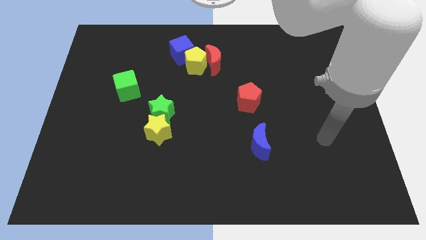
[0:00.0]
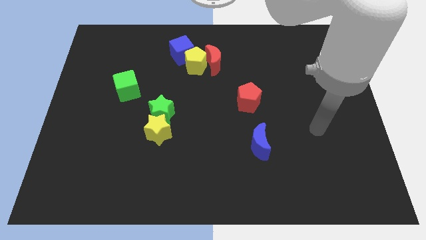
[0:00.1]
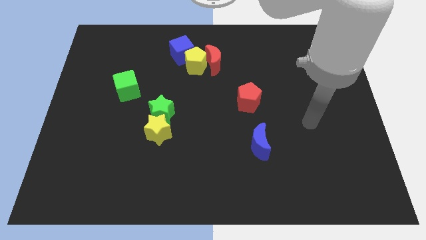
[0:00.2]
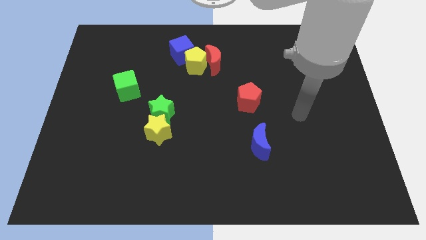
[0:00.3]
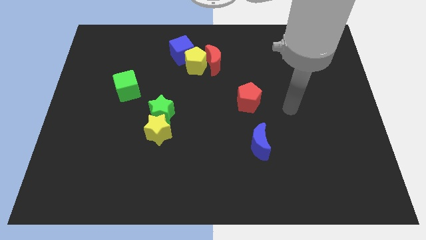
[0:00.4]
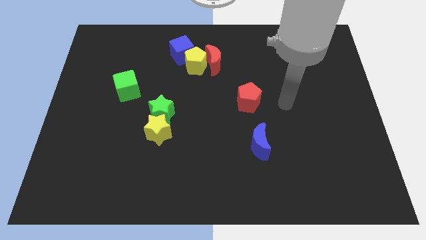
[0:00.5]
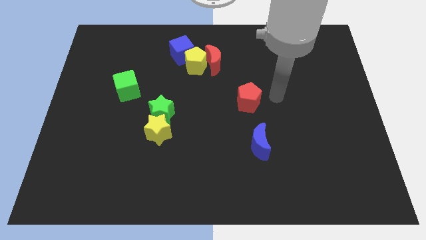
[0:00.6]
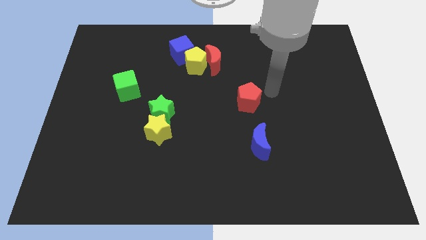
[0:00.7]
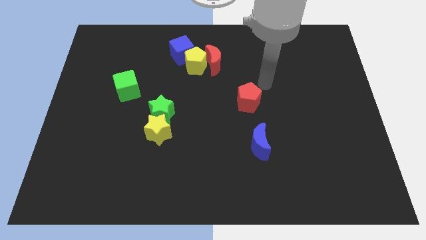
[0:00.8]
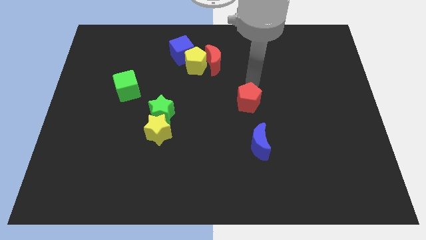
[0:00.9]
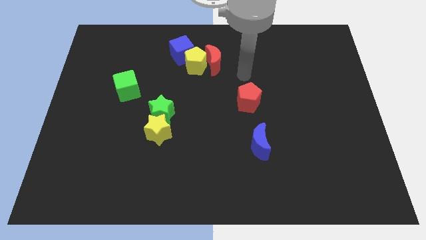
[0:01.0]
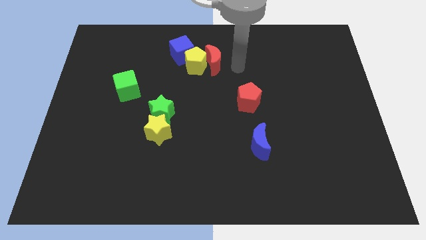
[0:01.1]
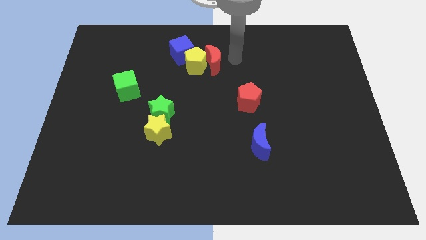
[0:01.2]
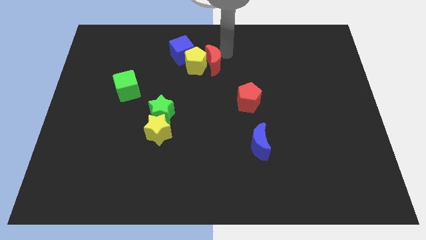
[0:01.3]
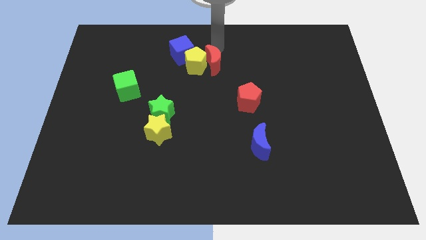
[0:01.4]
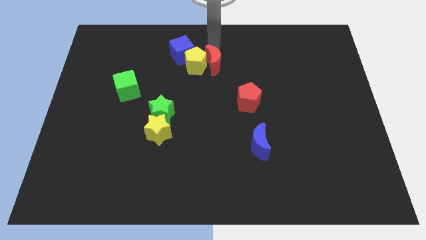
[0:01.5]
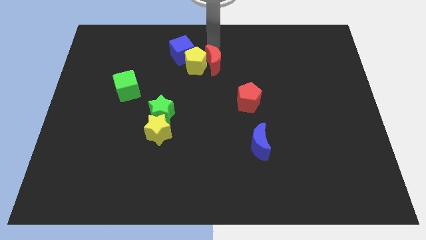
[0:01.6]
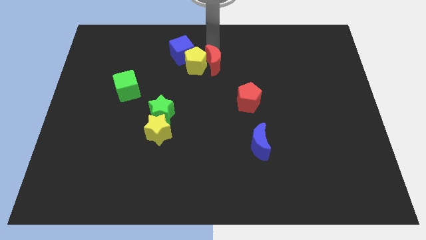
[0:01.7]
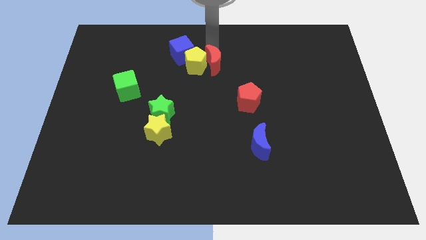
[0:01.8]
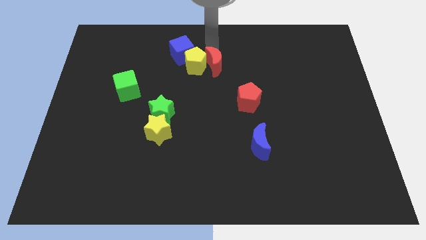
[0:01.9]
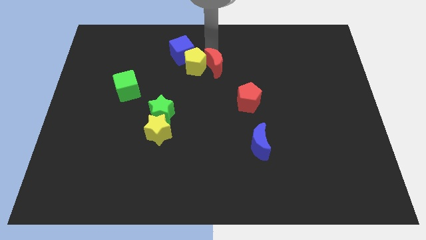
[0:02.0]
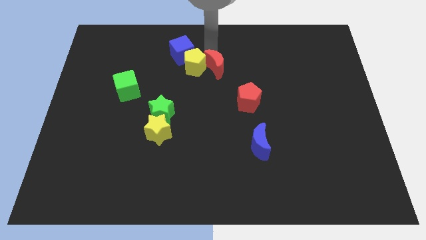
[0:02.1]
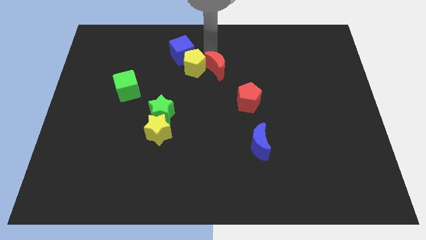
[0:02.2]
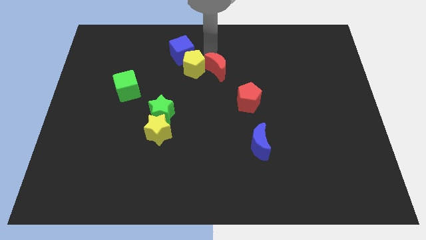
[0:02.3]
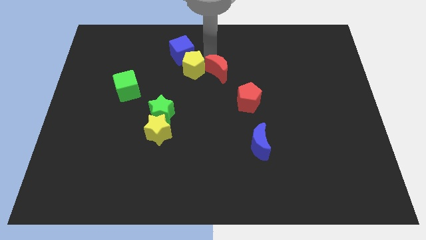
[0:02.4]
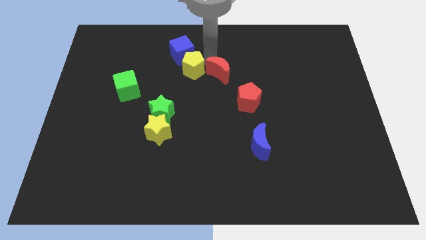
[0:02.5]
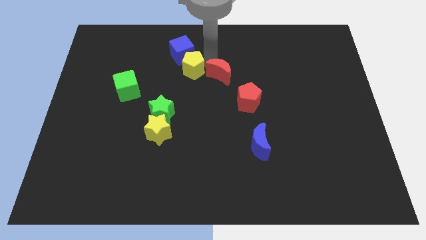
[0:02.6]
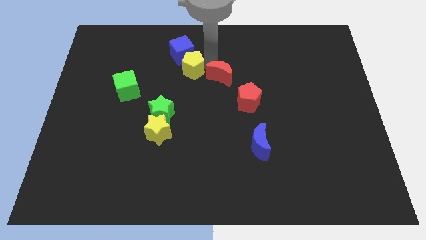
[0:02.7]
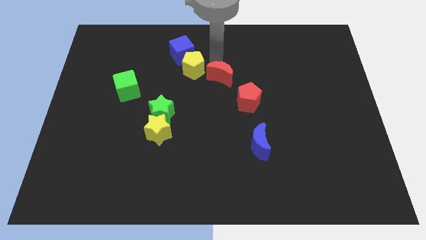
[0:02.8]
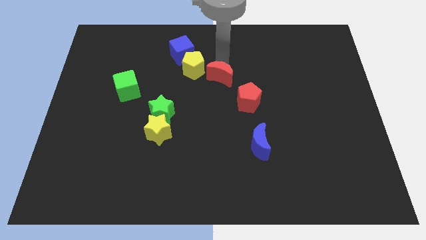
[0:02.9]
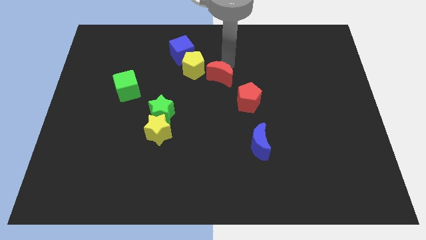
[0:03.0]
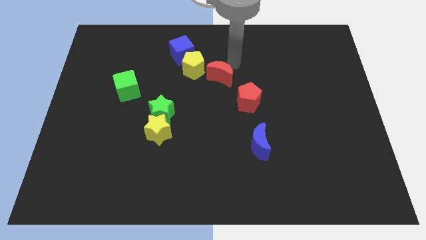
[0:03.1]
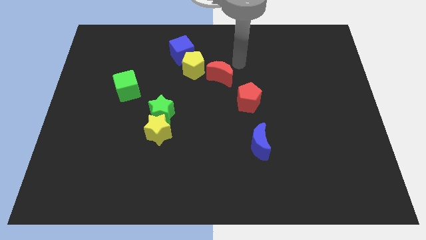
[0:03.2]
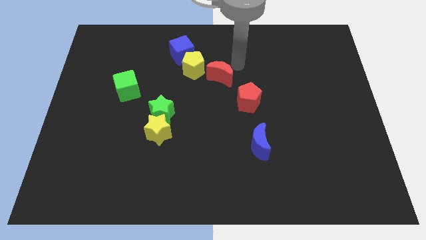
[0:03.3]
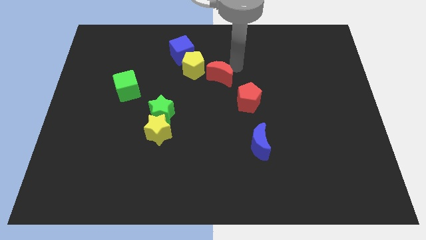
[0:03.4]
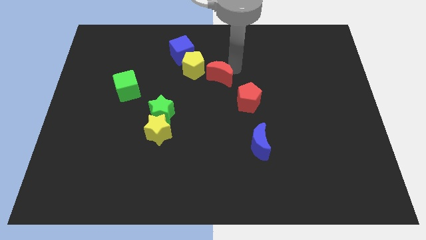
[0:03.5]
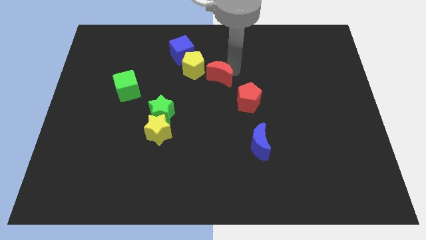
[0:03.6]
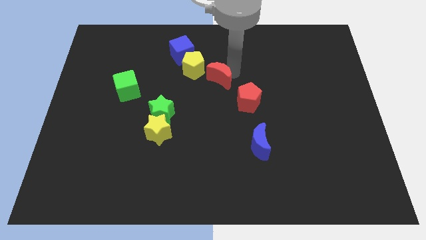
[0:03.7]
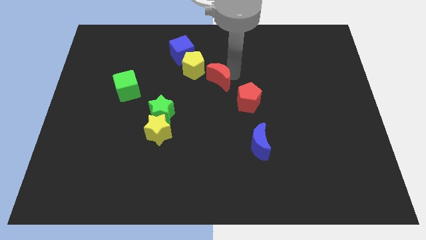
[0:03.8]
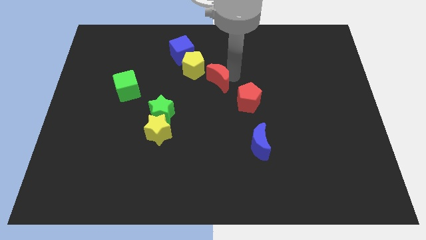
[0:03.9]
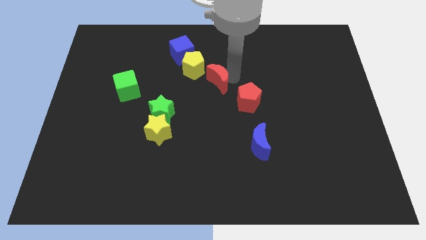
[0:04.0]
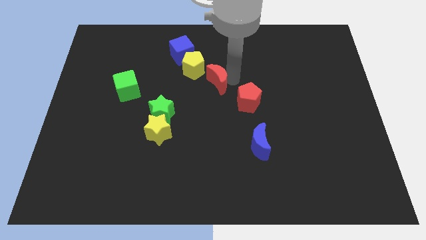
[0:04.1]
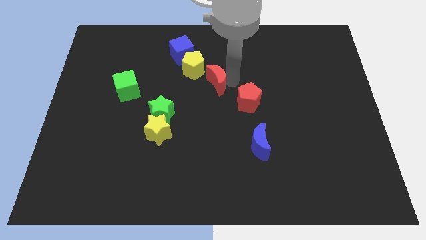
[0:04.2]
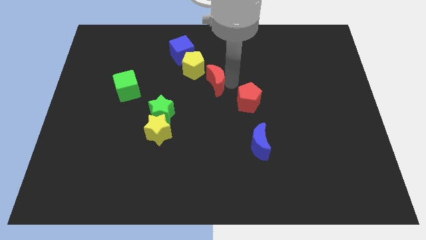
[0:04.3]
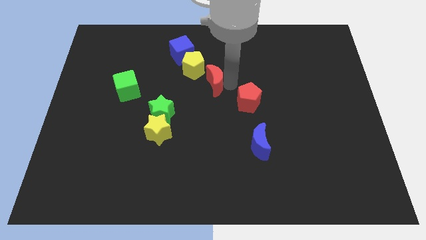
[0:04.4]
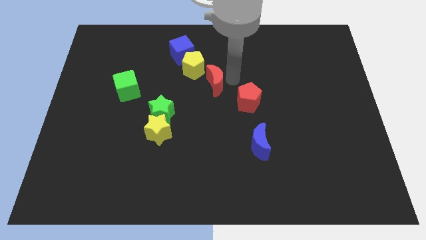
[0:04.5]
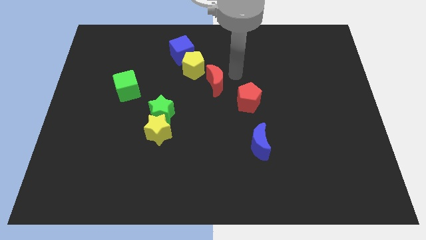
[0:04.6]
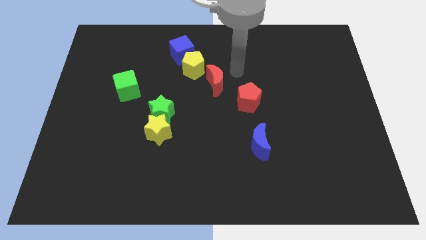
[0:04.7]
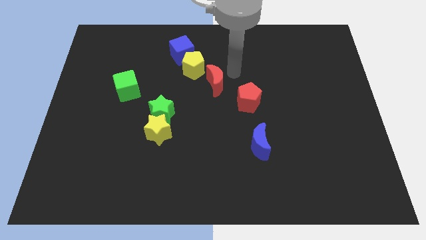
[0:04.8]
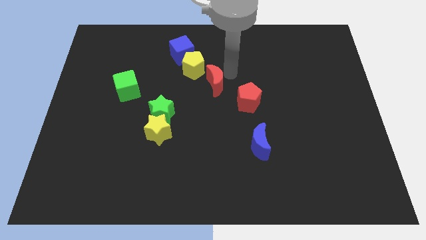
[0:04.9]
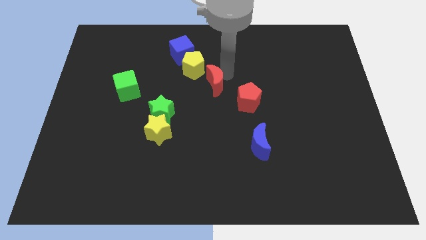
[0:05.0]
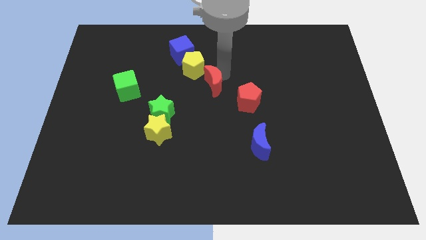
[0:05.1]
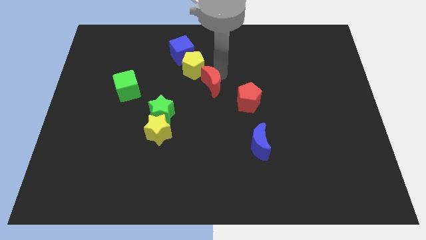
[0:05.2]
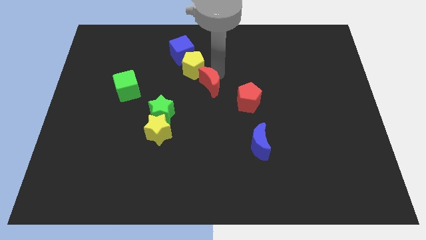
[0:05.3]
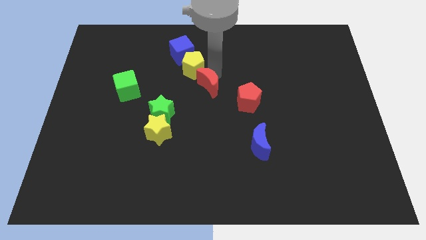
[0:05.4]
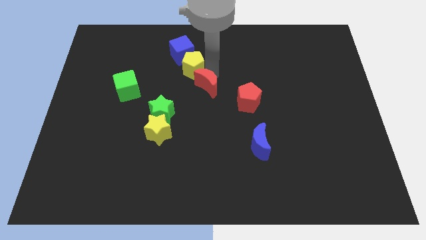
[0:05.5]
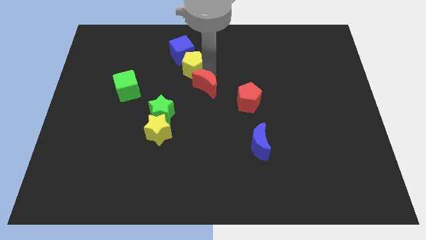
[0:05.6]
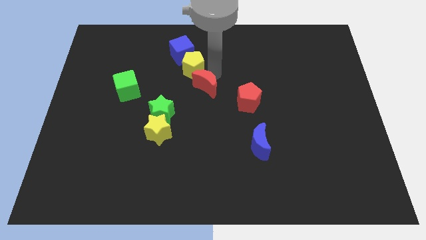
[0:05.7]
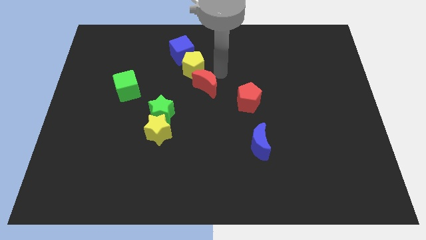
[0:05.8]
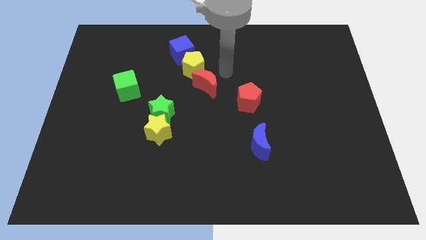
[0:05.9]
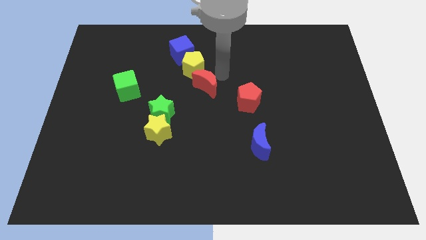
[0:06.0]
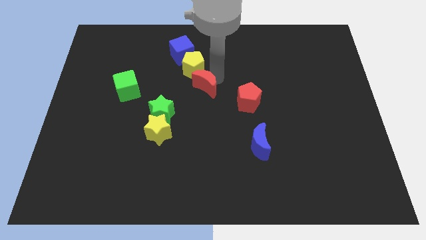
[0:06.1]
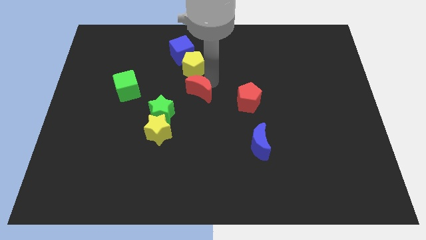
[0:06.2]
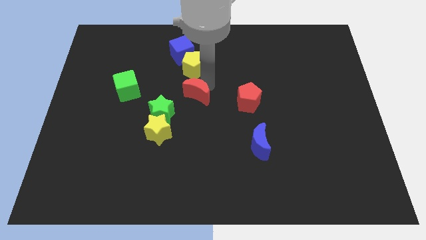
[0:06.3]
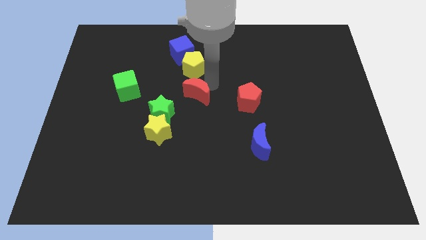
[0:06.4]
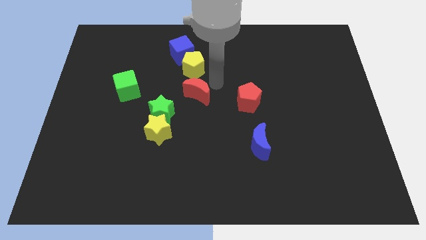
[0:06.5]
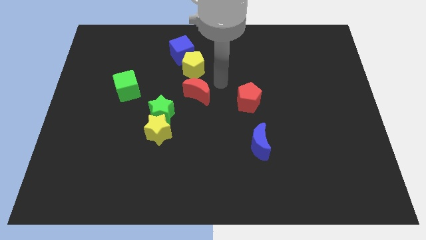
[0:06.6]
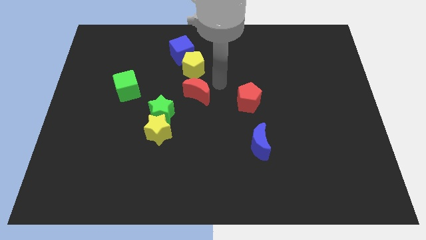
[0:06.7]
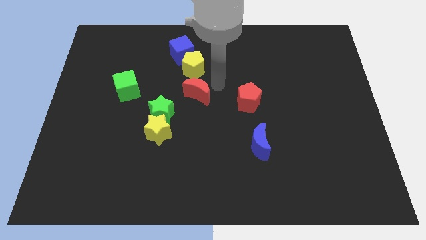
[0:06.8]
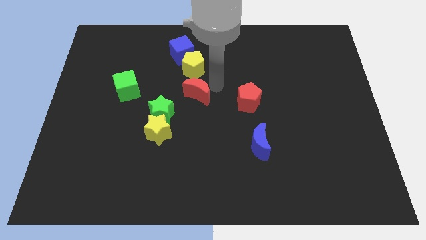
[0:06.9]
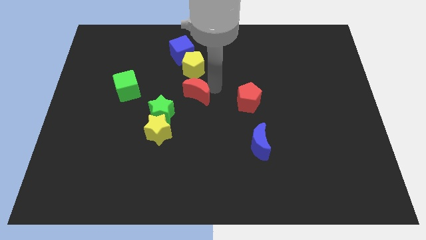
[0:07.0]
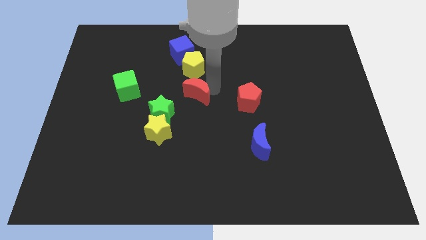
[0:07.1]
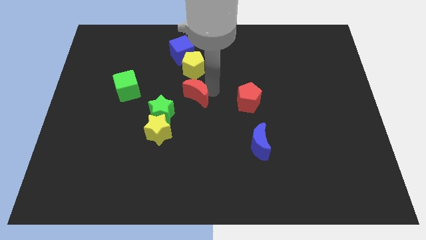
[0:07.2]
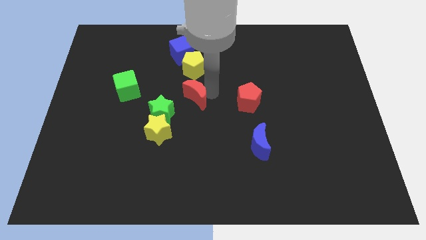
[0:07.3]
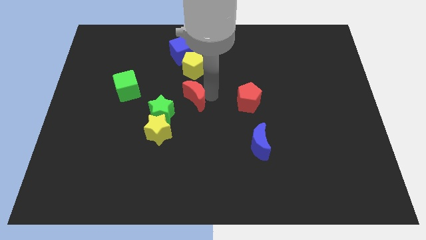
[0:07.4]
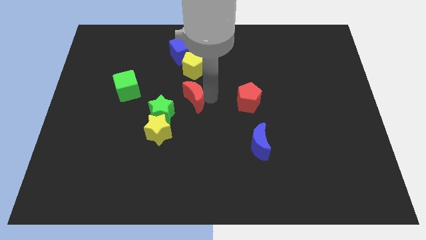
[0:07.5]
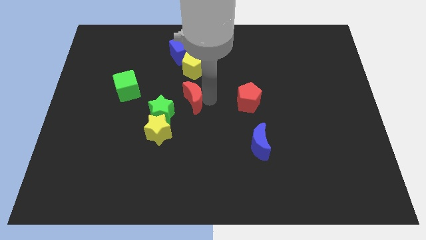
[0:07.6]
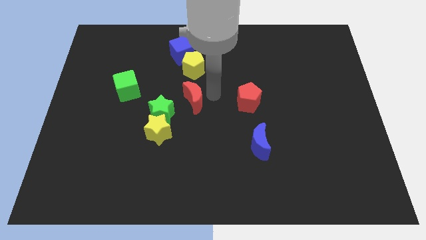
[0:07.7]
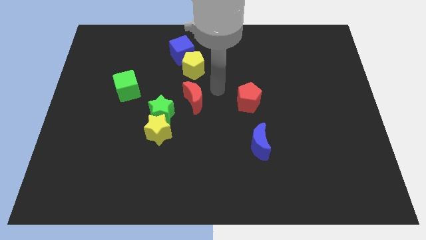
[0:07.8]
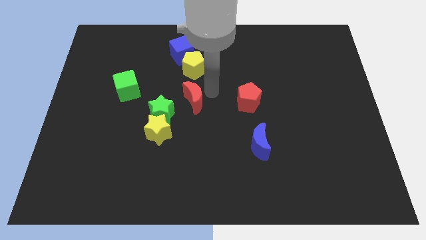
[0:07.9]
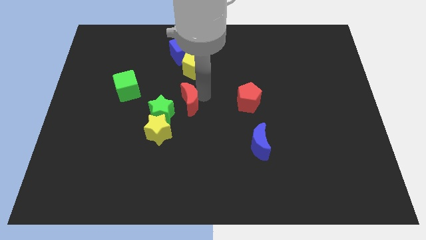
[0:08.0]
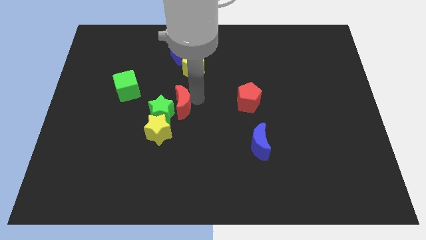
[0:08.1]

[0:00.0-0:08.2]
slide the red moon close to the green star
